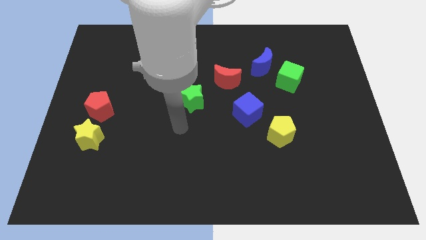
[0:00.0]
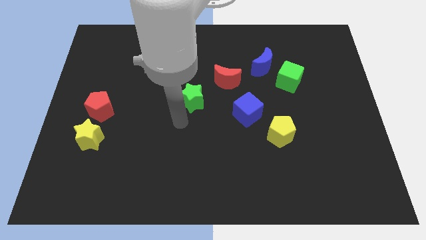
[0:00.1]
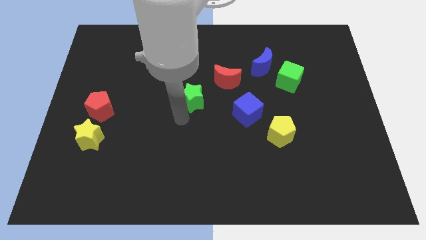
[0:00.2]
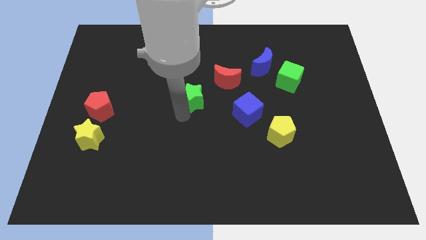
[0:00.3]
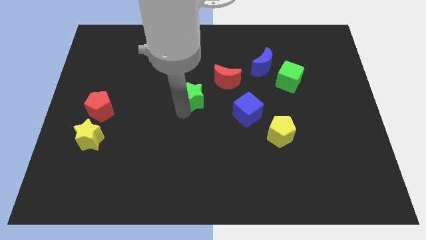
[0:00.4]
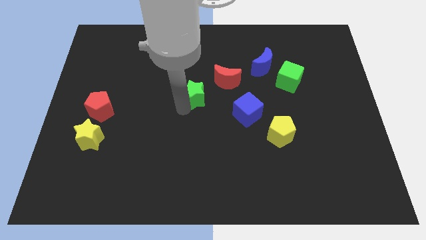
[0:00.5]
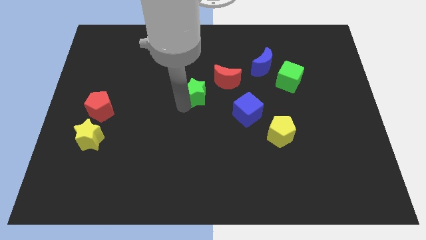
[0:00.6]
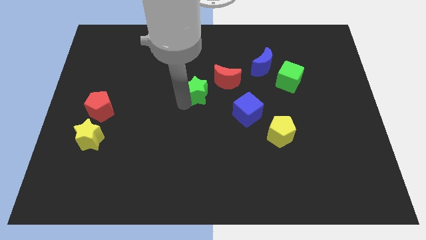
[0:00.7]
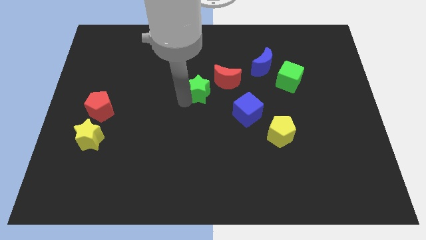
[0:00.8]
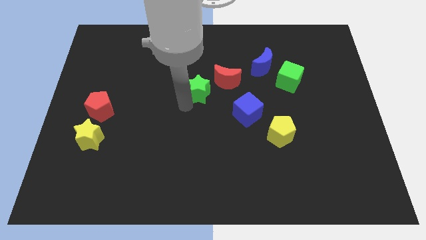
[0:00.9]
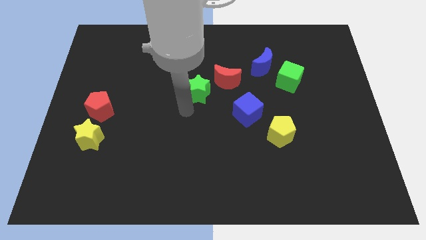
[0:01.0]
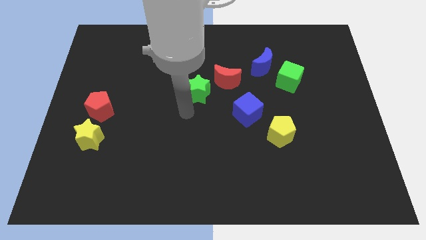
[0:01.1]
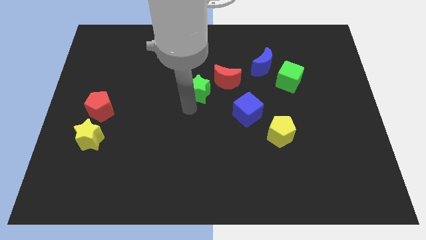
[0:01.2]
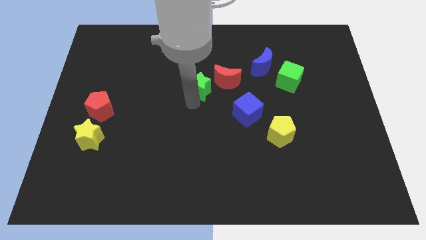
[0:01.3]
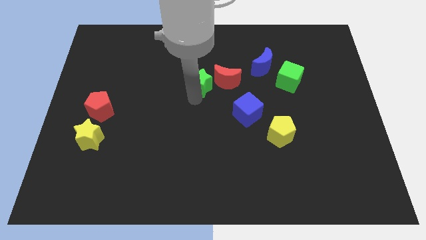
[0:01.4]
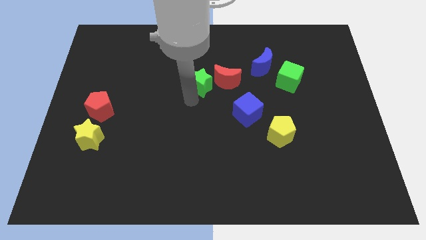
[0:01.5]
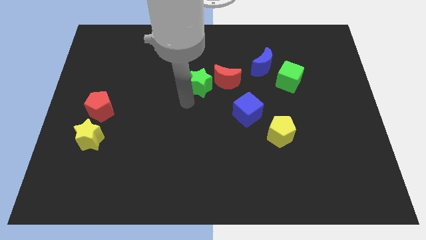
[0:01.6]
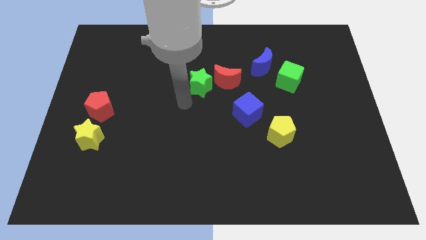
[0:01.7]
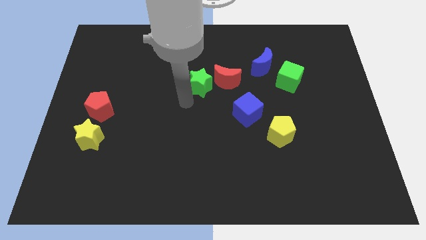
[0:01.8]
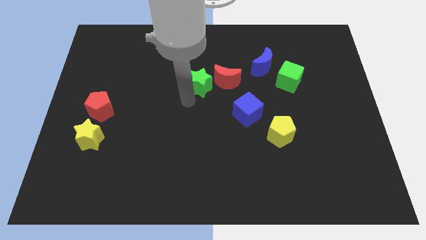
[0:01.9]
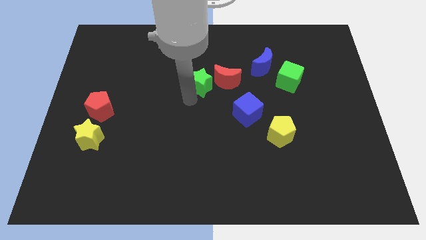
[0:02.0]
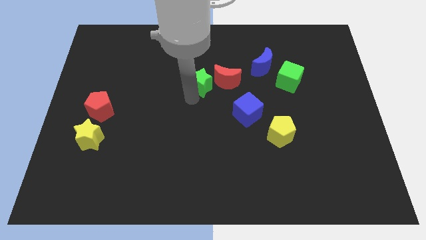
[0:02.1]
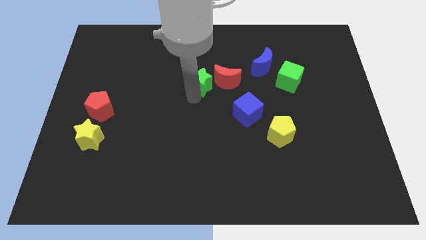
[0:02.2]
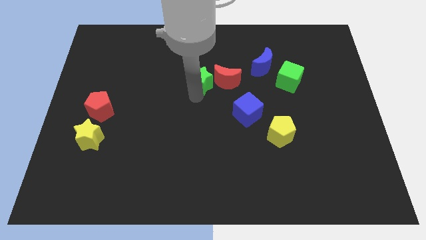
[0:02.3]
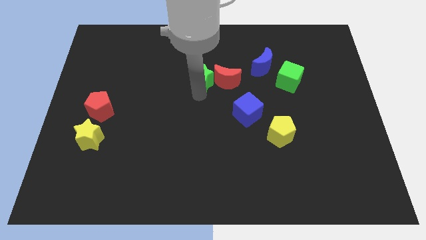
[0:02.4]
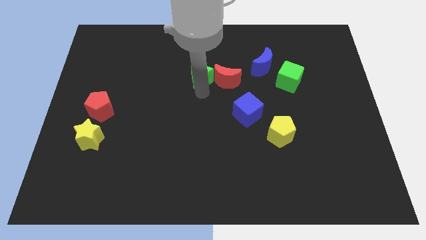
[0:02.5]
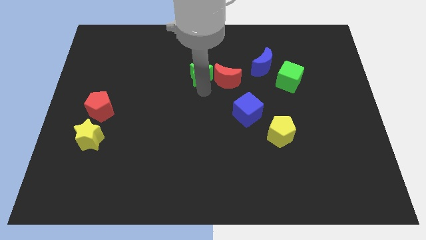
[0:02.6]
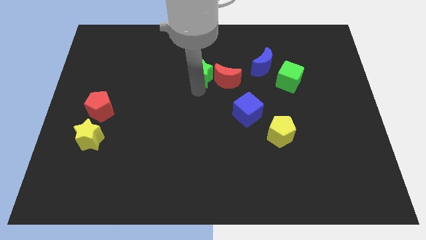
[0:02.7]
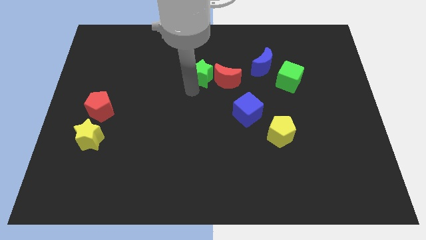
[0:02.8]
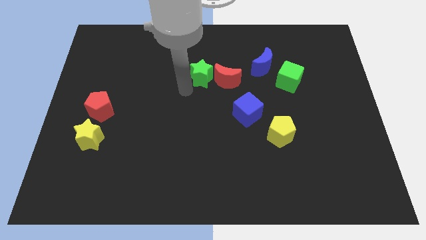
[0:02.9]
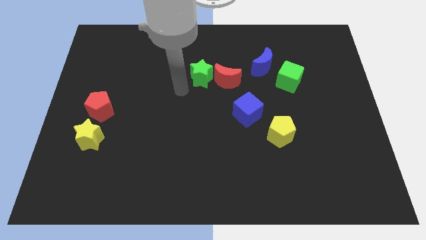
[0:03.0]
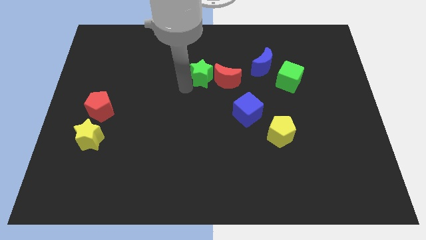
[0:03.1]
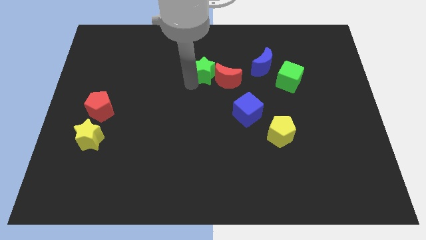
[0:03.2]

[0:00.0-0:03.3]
move the green star a little upwards and then to the right

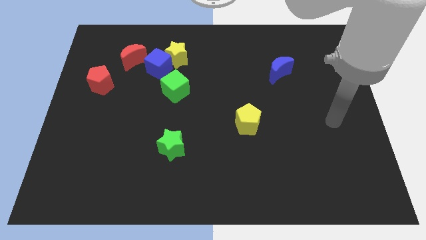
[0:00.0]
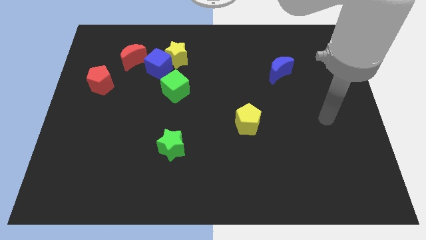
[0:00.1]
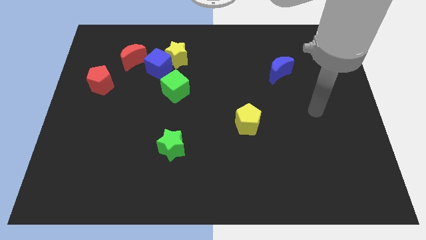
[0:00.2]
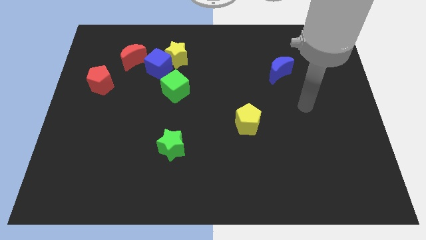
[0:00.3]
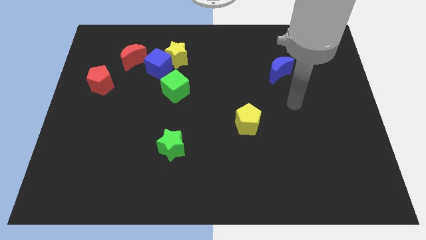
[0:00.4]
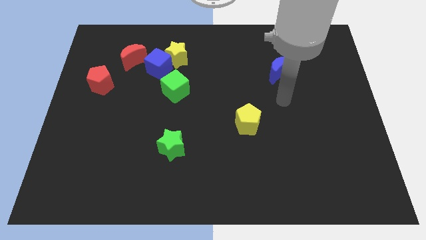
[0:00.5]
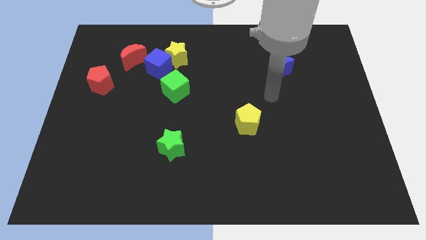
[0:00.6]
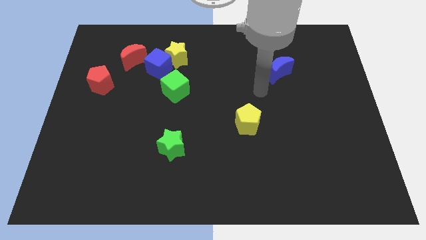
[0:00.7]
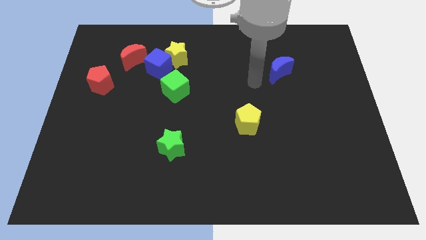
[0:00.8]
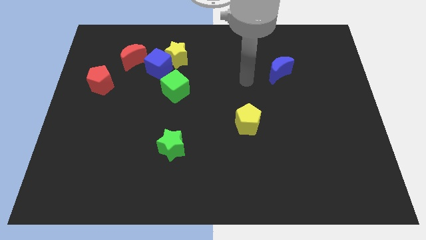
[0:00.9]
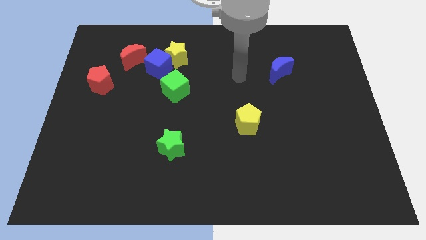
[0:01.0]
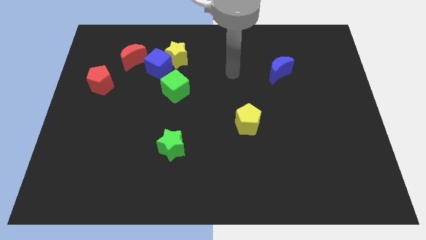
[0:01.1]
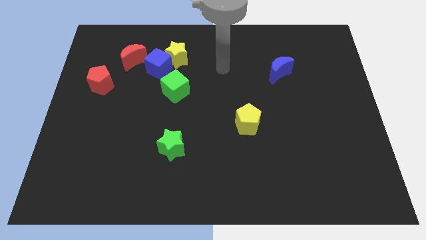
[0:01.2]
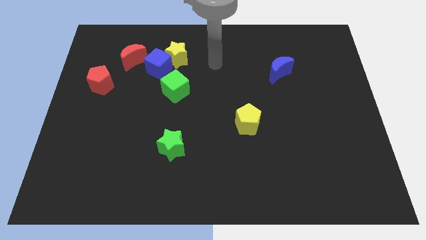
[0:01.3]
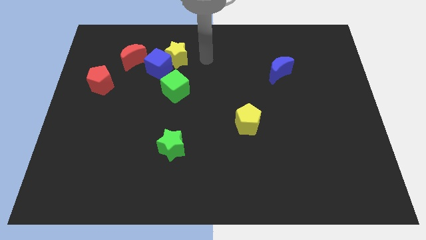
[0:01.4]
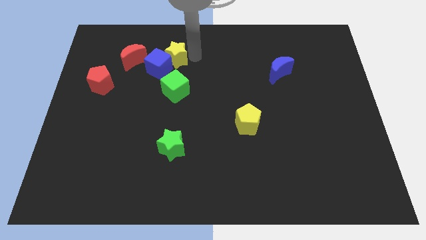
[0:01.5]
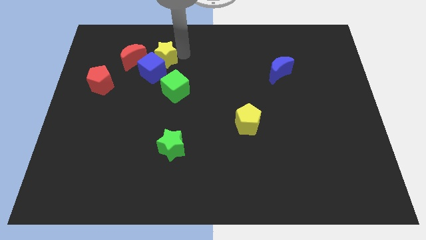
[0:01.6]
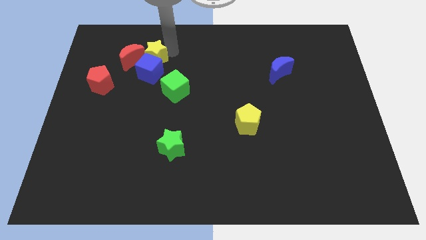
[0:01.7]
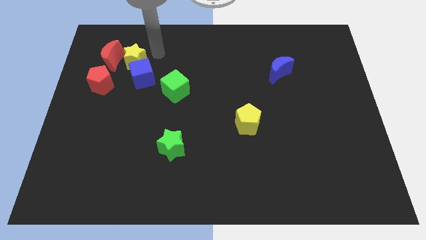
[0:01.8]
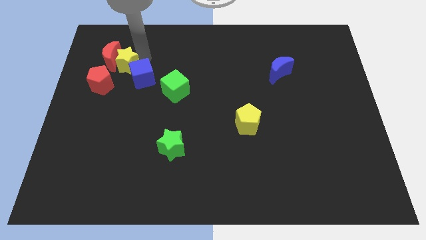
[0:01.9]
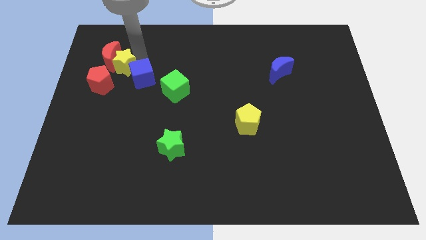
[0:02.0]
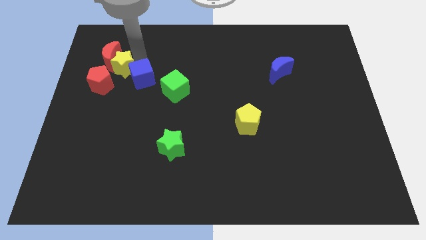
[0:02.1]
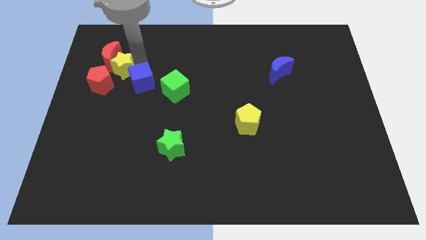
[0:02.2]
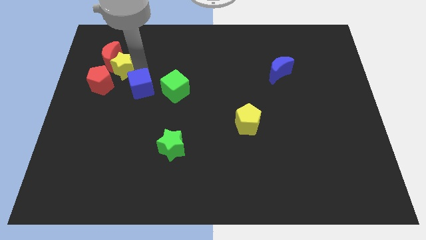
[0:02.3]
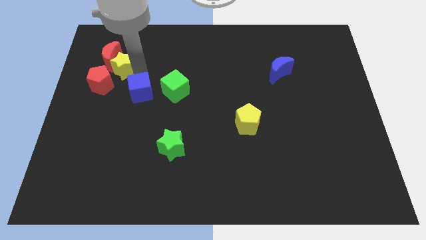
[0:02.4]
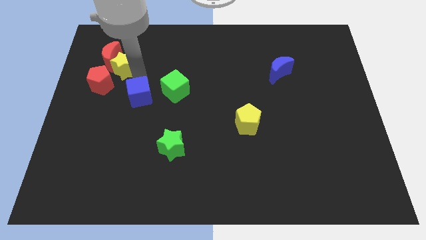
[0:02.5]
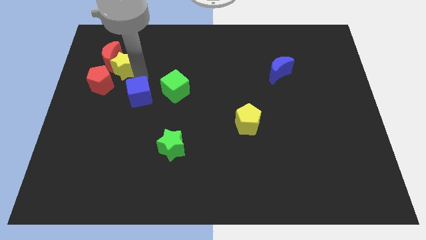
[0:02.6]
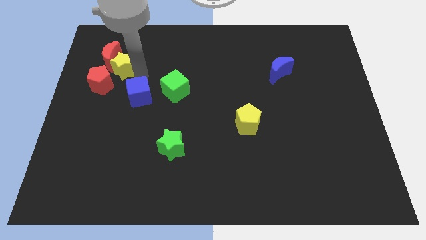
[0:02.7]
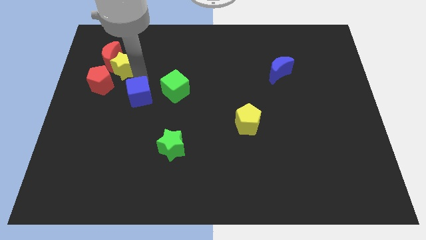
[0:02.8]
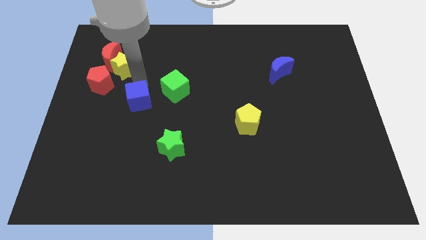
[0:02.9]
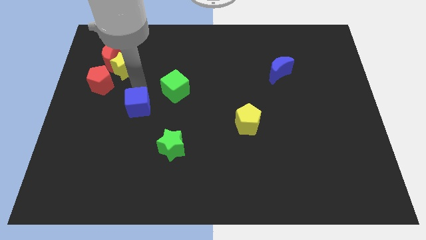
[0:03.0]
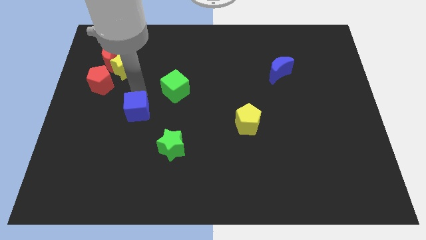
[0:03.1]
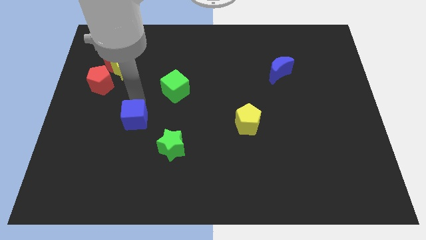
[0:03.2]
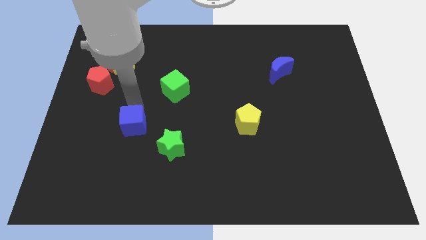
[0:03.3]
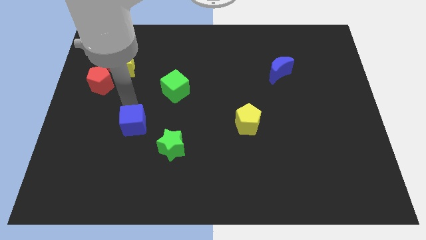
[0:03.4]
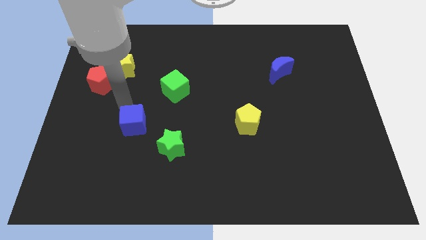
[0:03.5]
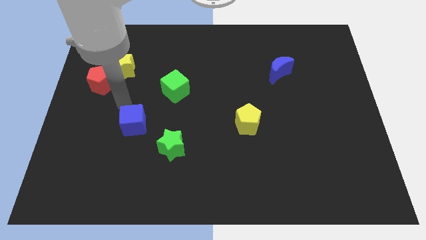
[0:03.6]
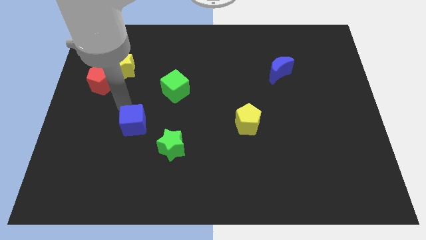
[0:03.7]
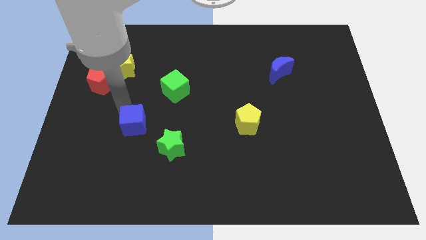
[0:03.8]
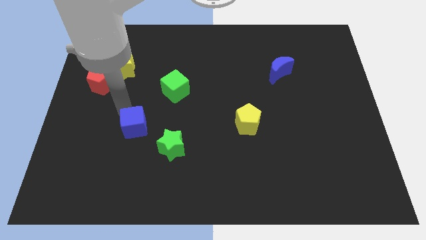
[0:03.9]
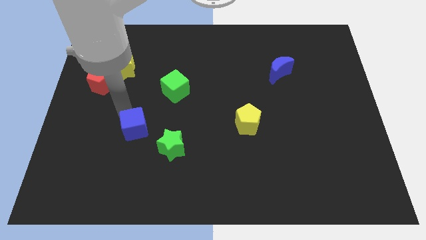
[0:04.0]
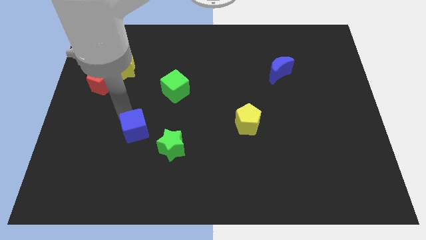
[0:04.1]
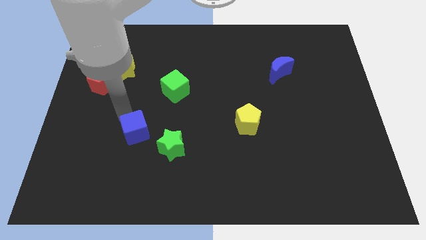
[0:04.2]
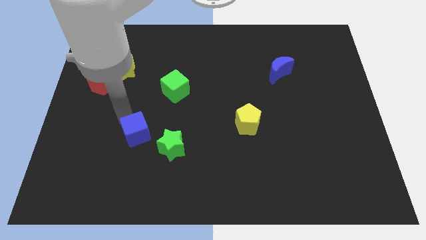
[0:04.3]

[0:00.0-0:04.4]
push the blue cube downwards

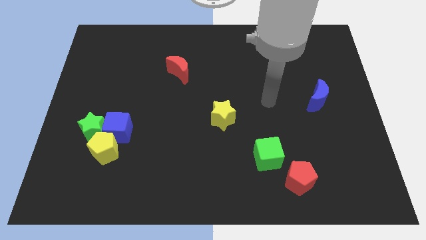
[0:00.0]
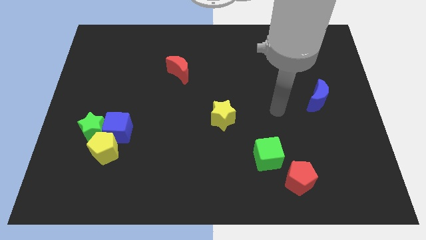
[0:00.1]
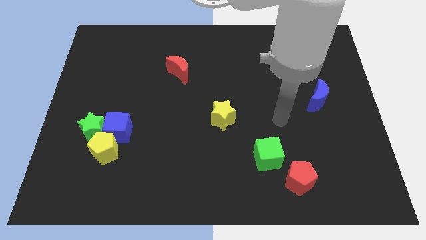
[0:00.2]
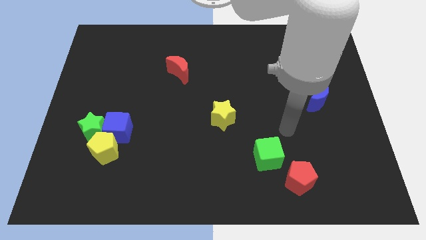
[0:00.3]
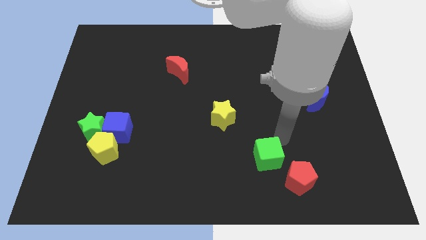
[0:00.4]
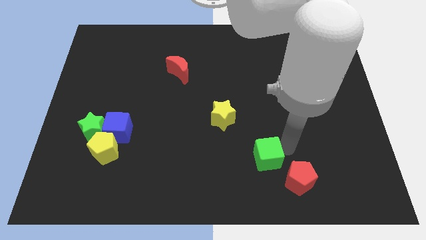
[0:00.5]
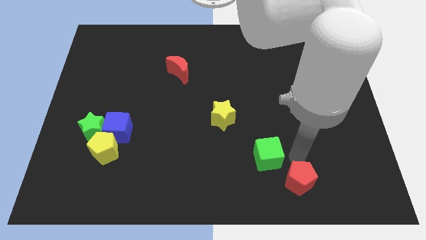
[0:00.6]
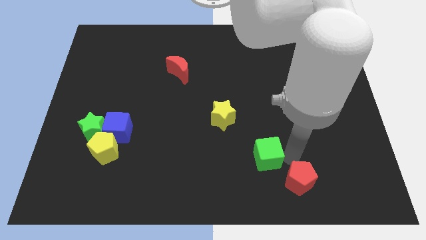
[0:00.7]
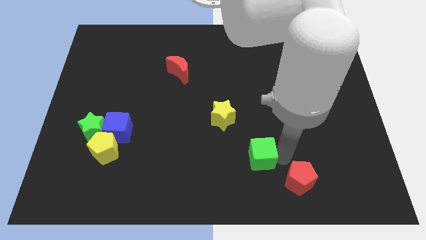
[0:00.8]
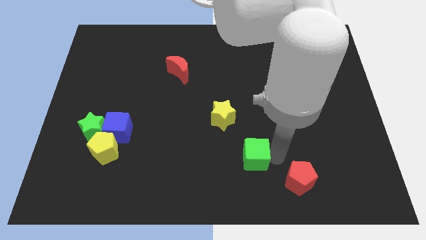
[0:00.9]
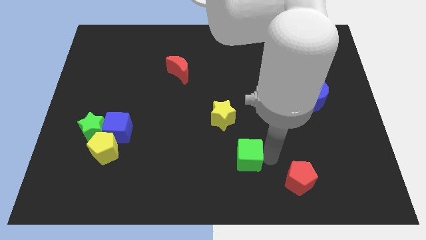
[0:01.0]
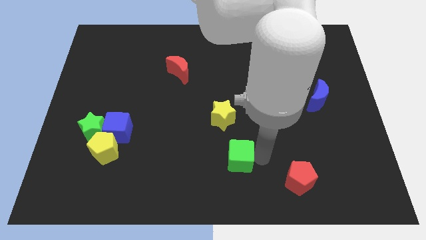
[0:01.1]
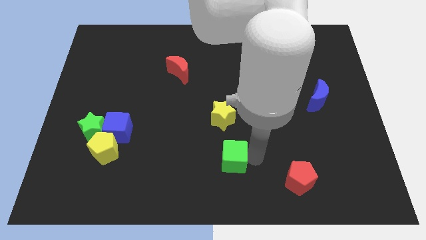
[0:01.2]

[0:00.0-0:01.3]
move the green cube left a little
